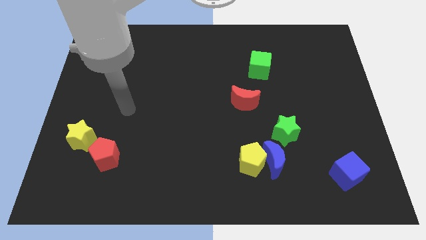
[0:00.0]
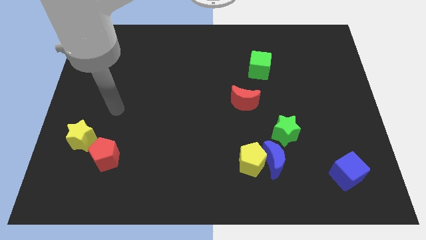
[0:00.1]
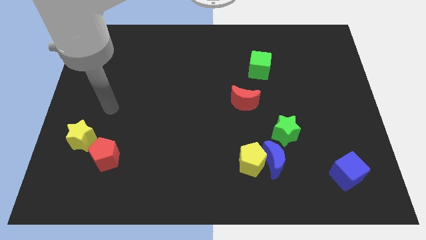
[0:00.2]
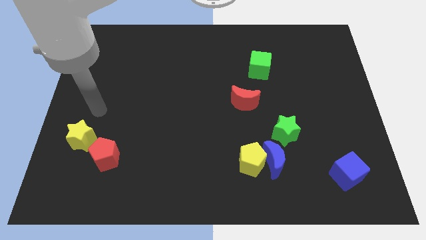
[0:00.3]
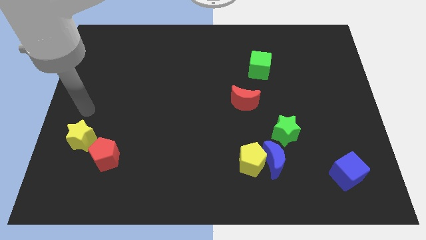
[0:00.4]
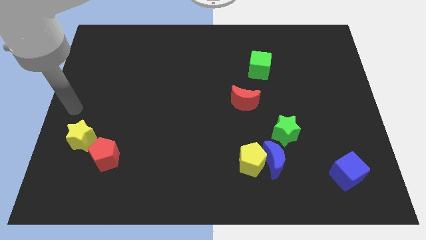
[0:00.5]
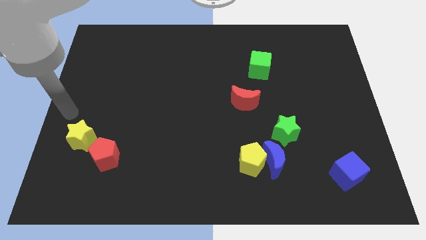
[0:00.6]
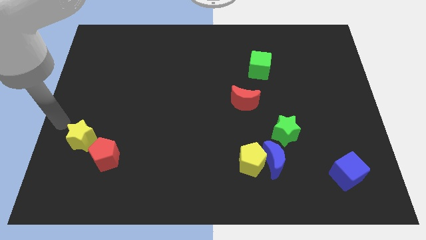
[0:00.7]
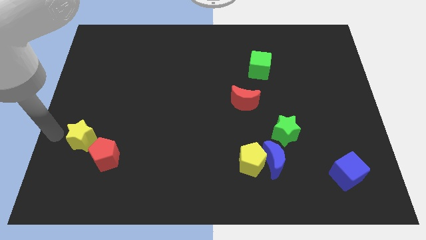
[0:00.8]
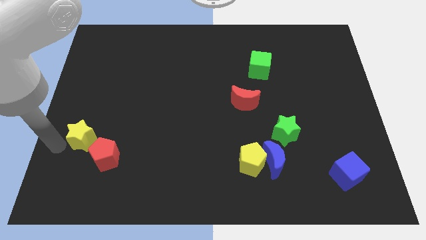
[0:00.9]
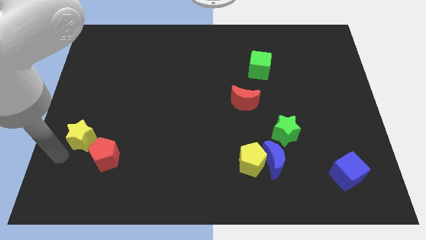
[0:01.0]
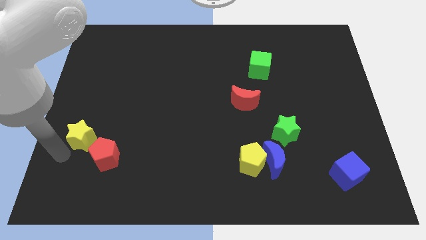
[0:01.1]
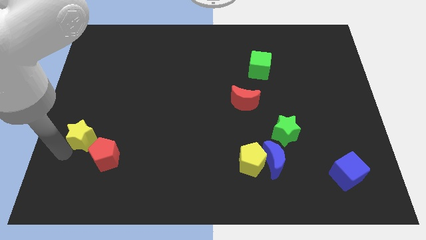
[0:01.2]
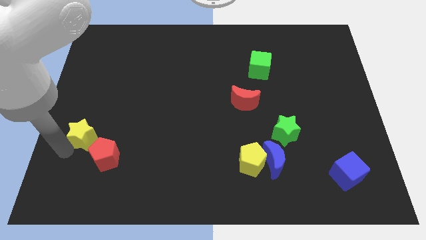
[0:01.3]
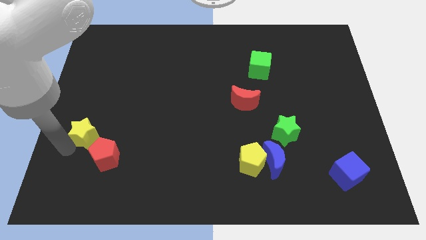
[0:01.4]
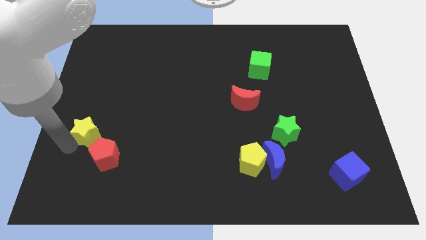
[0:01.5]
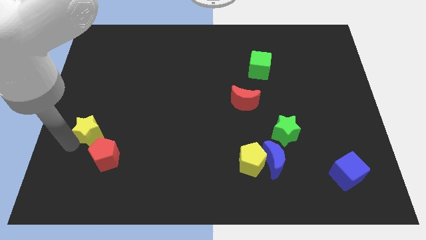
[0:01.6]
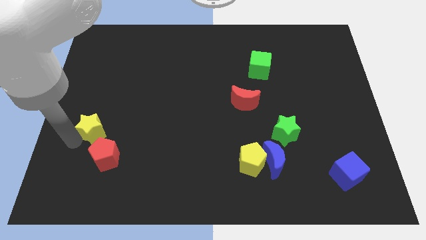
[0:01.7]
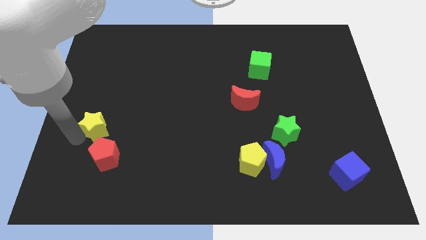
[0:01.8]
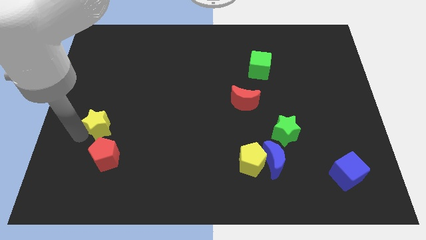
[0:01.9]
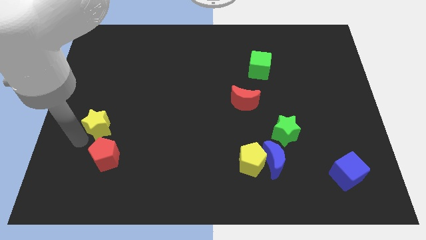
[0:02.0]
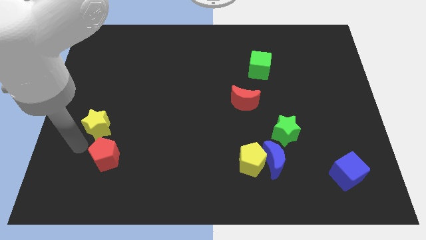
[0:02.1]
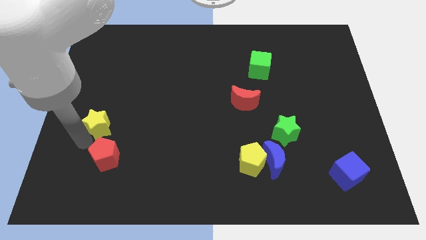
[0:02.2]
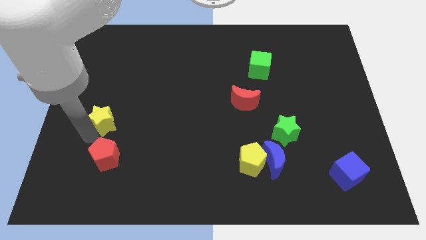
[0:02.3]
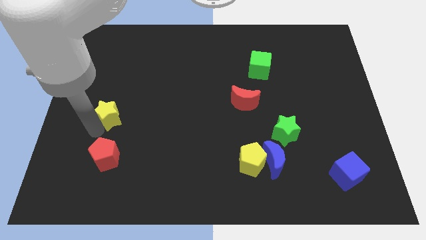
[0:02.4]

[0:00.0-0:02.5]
slide the yellow star upwards and to the right slightly

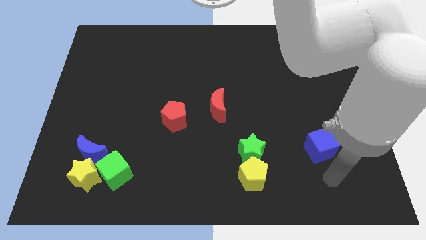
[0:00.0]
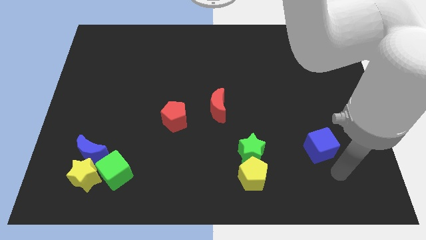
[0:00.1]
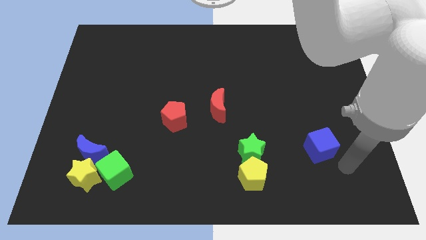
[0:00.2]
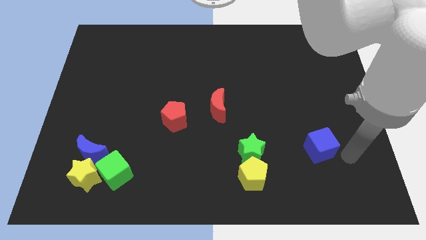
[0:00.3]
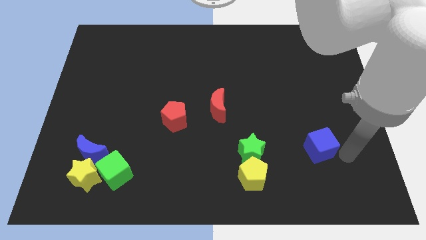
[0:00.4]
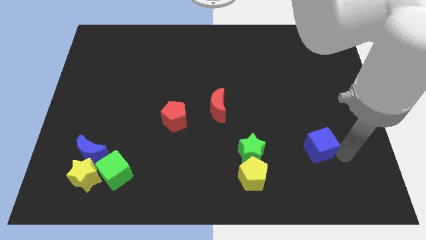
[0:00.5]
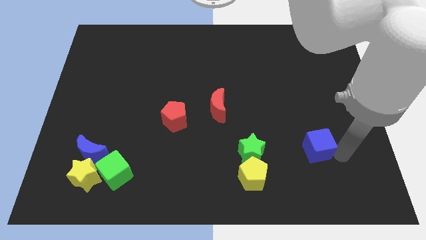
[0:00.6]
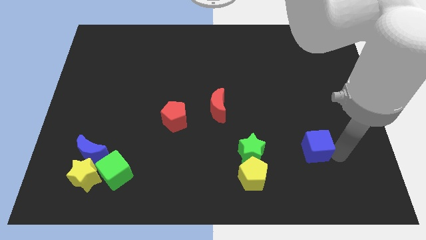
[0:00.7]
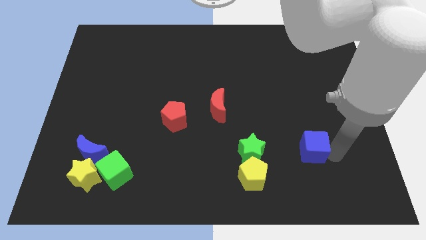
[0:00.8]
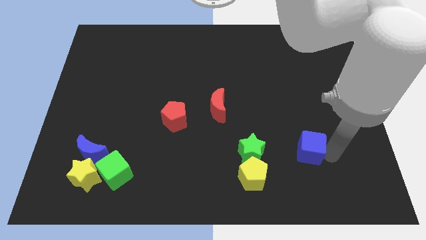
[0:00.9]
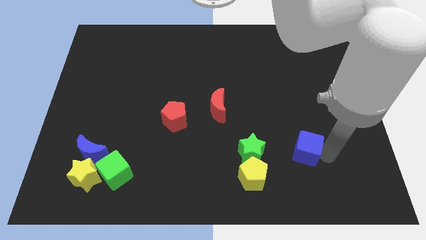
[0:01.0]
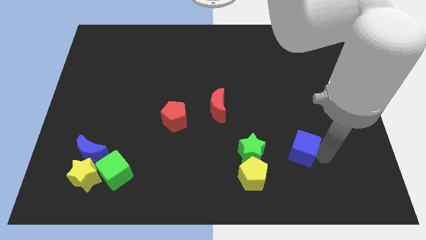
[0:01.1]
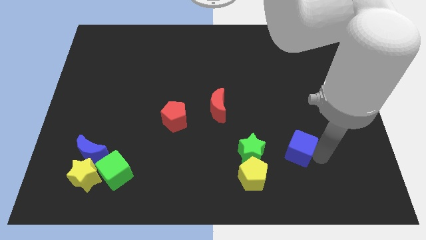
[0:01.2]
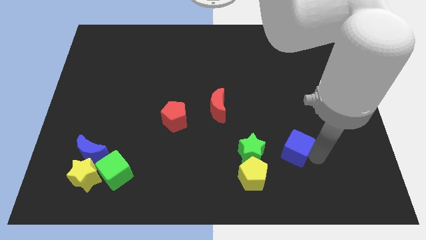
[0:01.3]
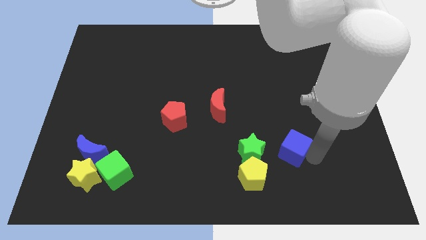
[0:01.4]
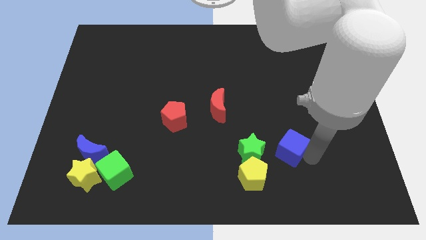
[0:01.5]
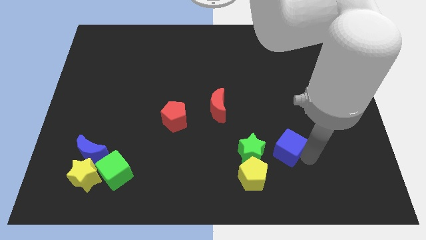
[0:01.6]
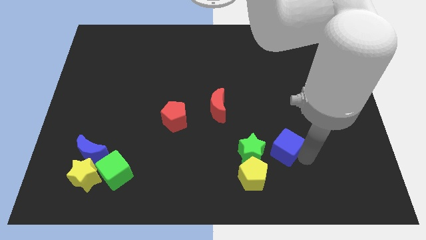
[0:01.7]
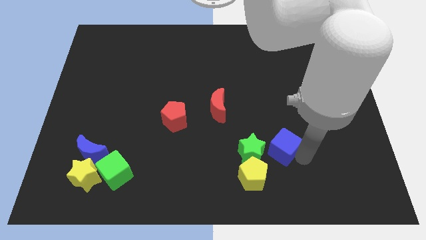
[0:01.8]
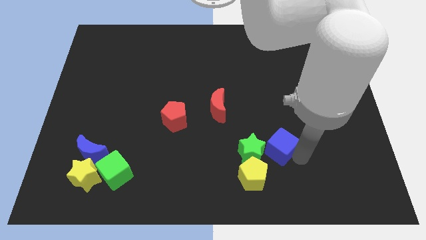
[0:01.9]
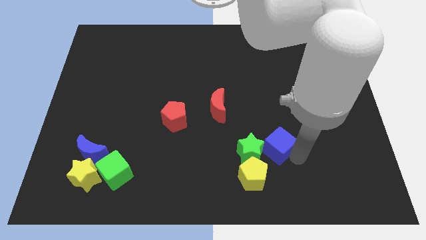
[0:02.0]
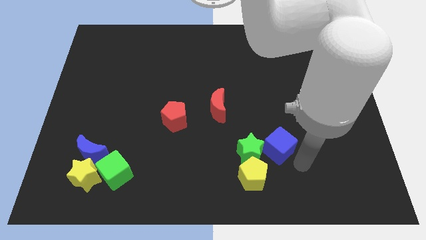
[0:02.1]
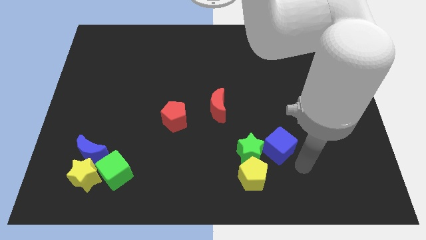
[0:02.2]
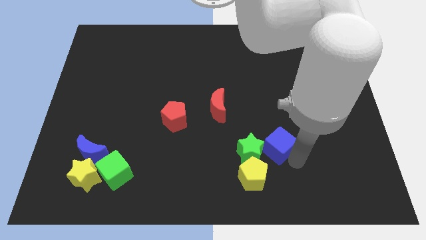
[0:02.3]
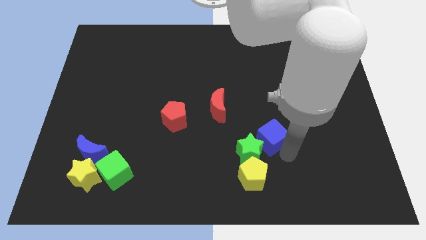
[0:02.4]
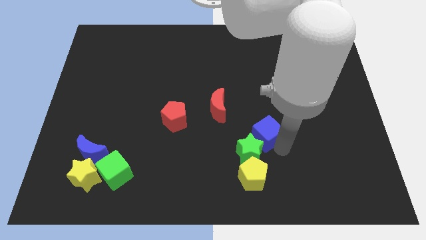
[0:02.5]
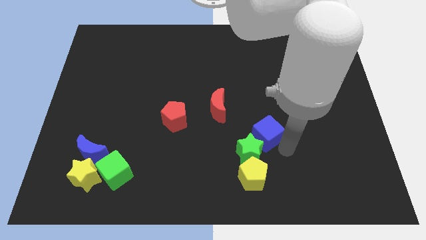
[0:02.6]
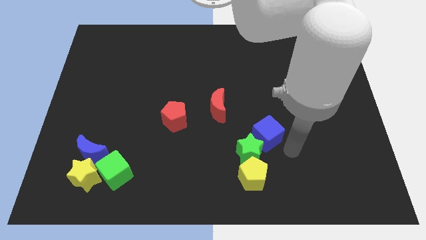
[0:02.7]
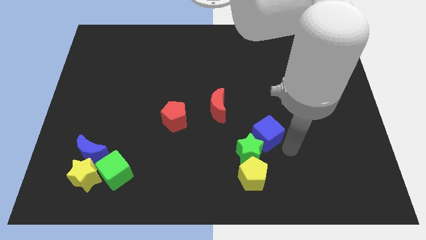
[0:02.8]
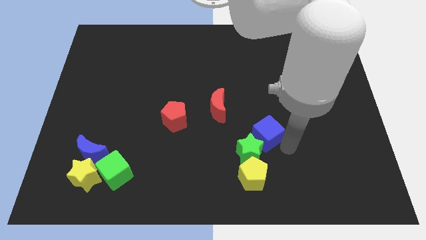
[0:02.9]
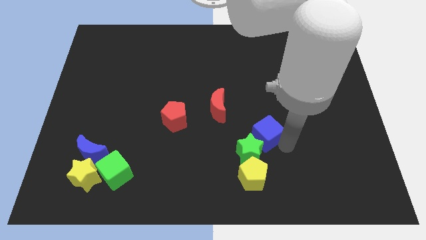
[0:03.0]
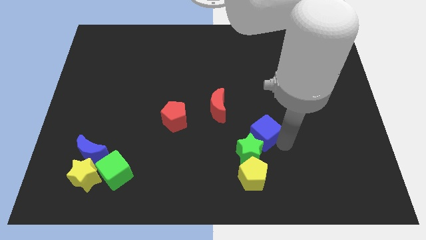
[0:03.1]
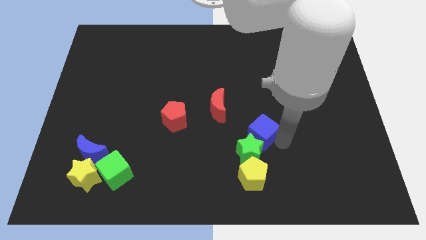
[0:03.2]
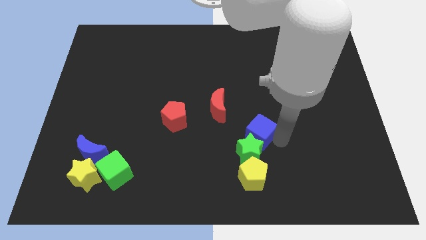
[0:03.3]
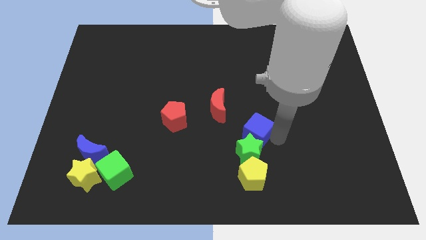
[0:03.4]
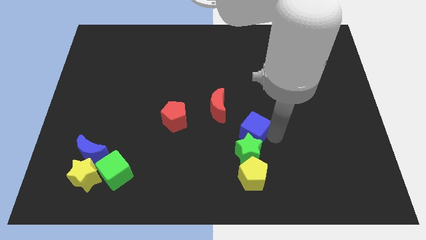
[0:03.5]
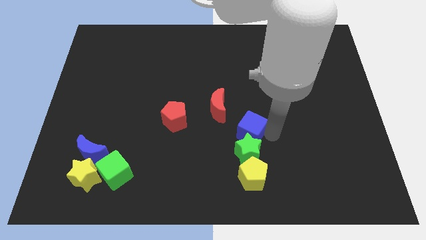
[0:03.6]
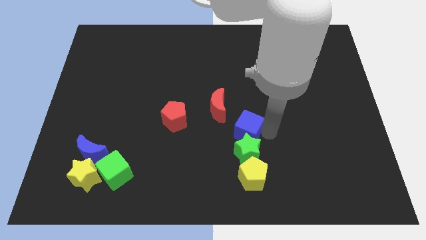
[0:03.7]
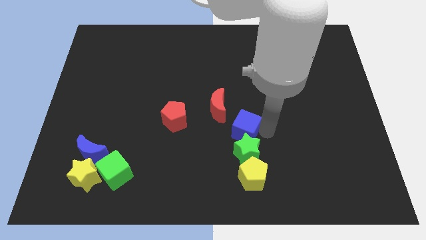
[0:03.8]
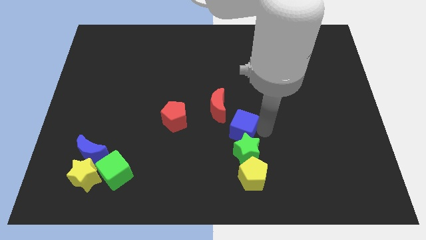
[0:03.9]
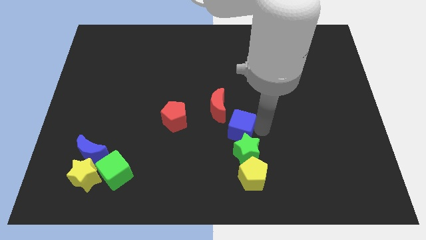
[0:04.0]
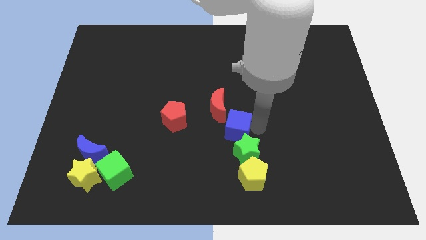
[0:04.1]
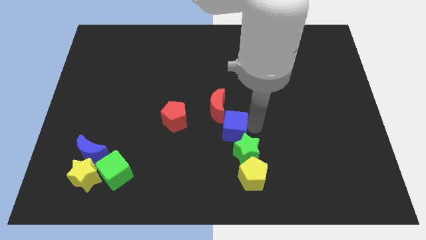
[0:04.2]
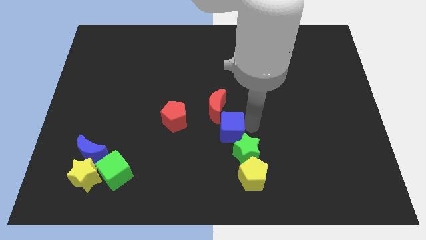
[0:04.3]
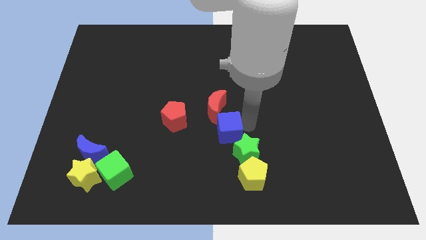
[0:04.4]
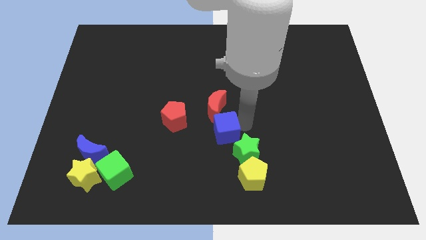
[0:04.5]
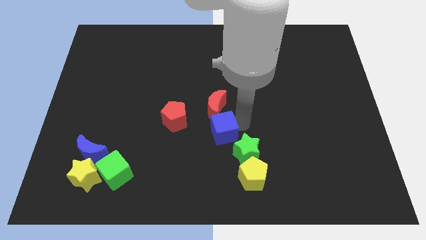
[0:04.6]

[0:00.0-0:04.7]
move the blue cube left

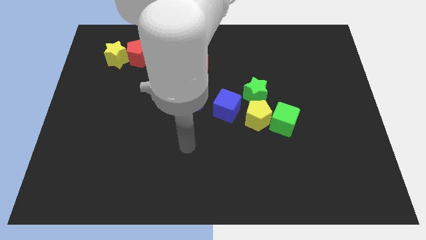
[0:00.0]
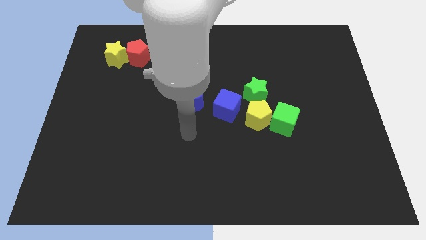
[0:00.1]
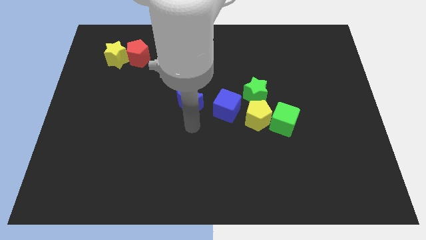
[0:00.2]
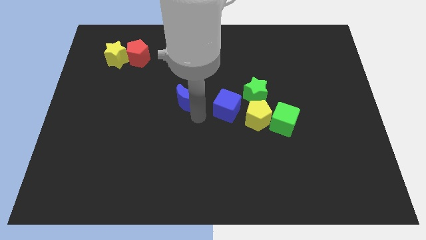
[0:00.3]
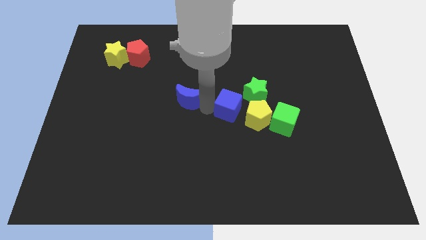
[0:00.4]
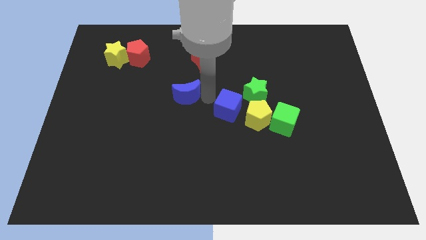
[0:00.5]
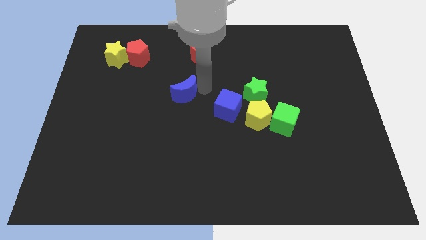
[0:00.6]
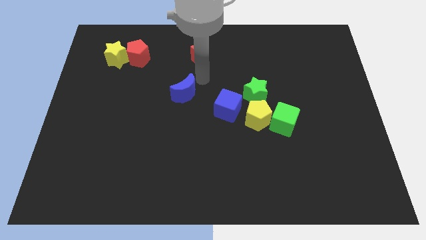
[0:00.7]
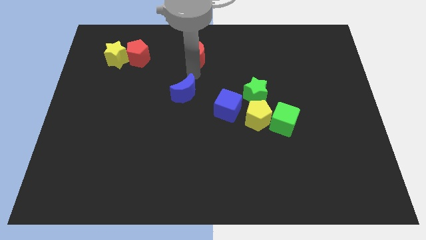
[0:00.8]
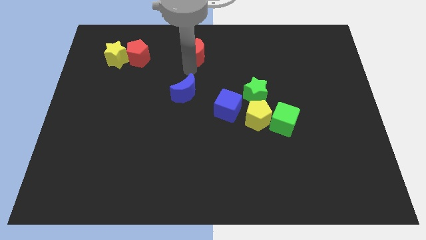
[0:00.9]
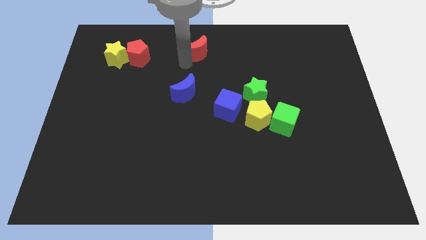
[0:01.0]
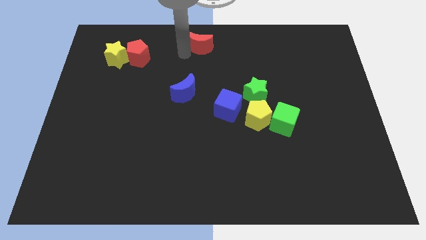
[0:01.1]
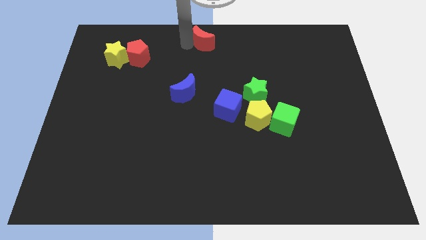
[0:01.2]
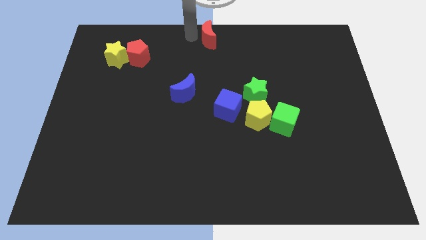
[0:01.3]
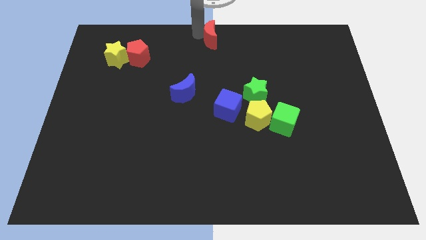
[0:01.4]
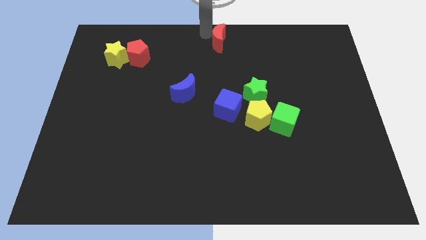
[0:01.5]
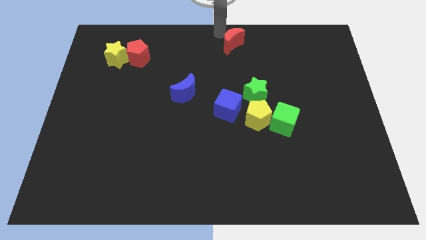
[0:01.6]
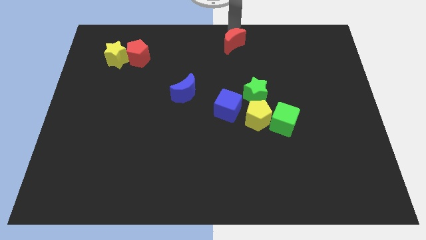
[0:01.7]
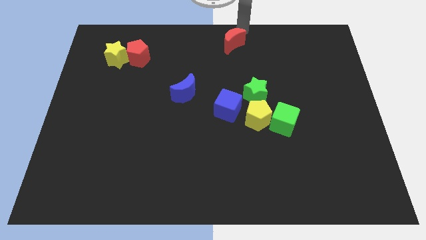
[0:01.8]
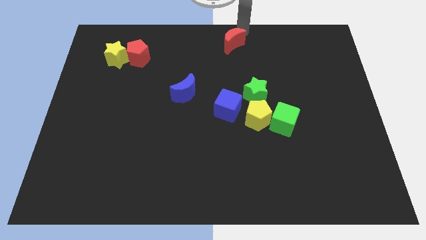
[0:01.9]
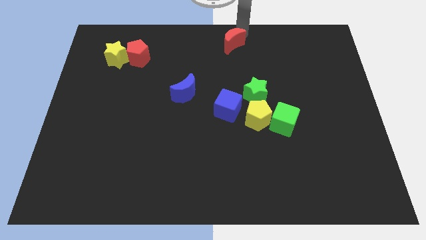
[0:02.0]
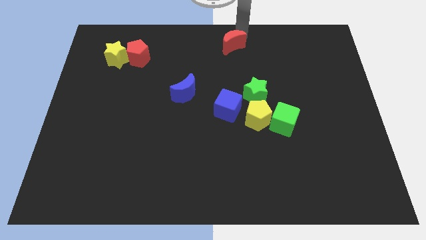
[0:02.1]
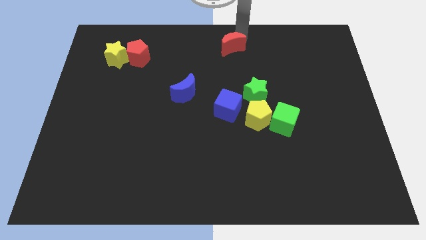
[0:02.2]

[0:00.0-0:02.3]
push the red moon slightly right
